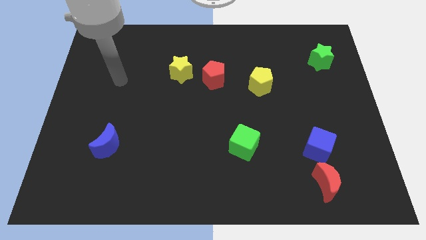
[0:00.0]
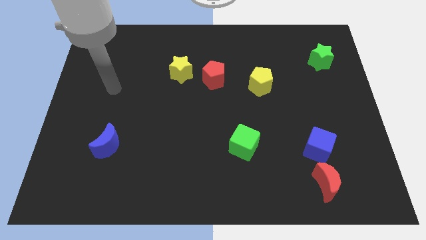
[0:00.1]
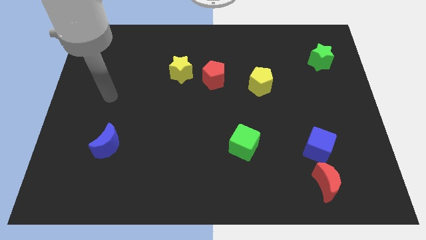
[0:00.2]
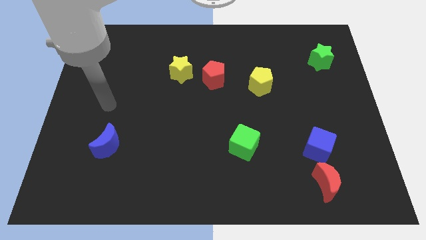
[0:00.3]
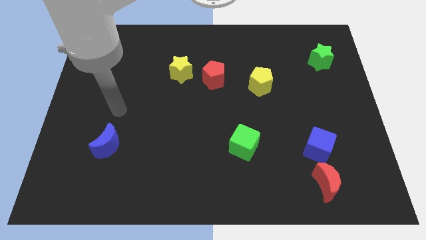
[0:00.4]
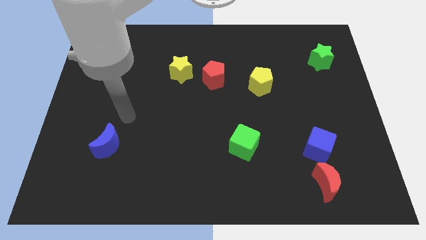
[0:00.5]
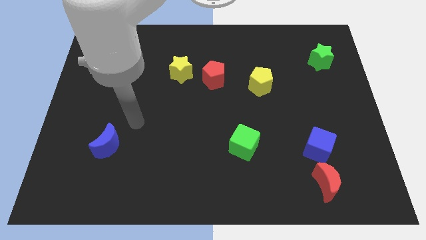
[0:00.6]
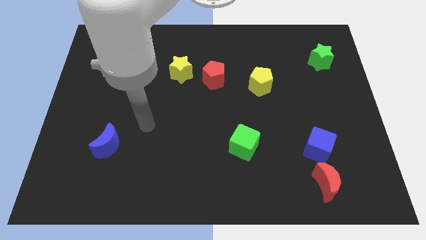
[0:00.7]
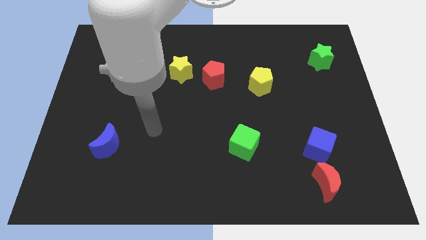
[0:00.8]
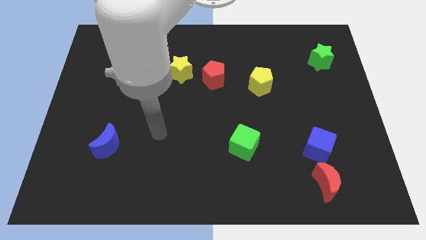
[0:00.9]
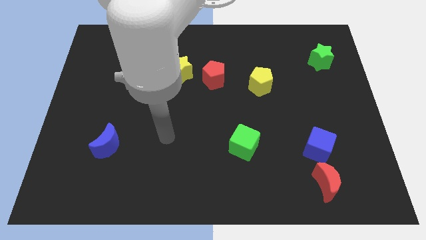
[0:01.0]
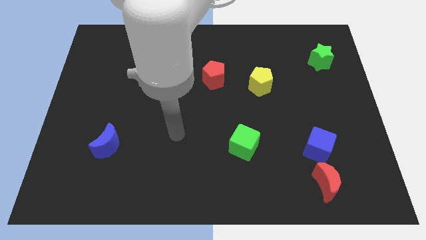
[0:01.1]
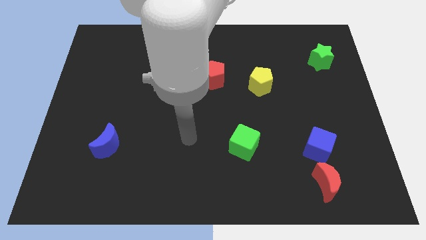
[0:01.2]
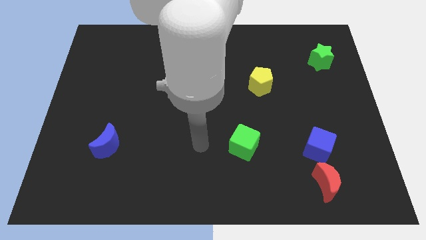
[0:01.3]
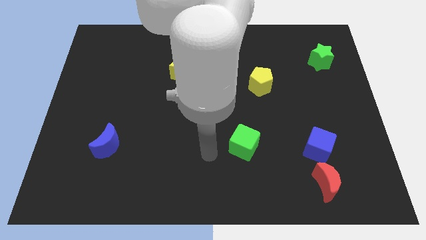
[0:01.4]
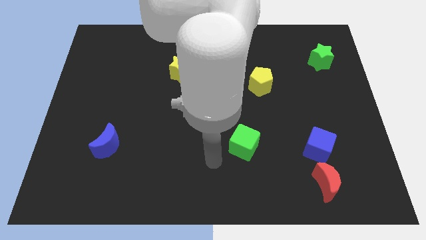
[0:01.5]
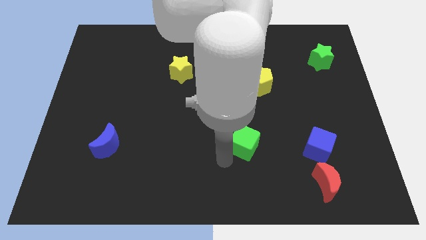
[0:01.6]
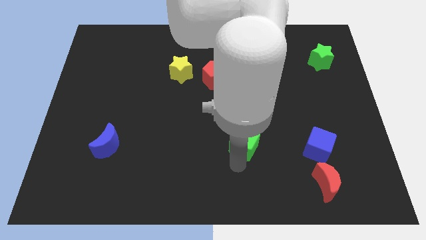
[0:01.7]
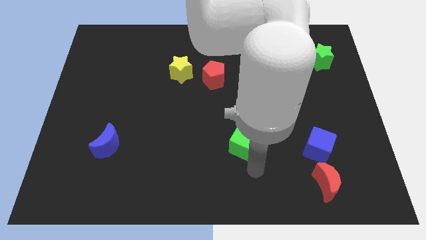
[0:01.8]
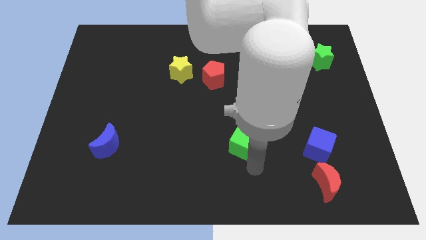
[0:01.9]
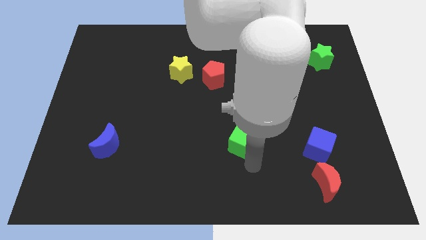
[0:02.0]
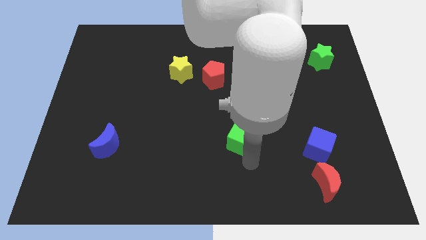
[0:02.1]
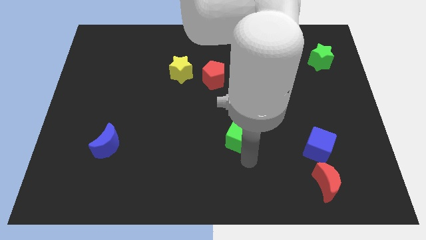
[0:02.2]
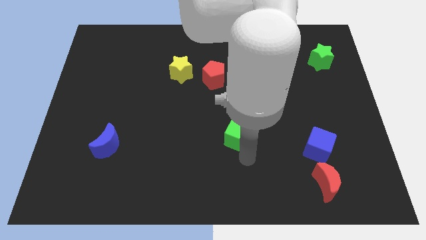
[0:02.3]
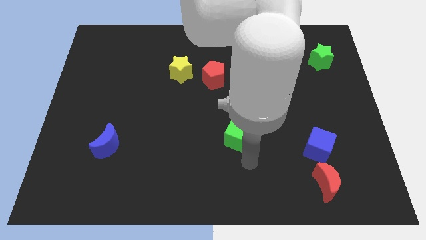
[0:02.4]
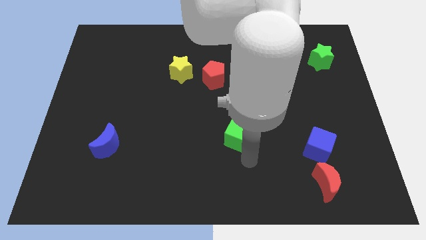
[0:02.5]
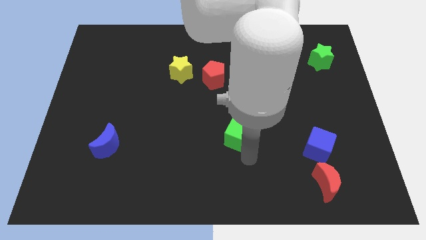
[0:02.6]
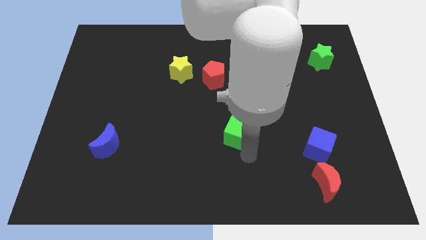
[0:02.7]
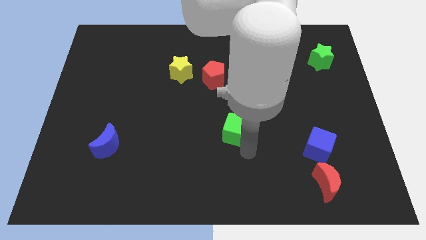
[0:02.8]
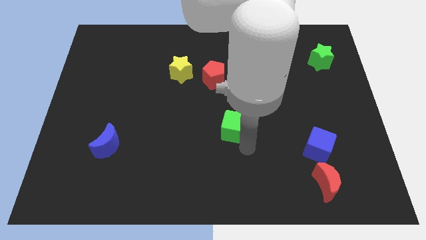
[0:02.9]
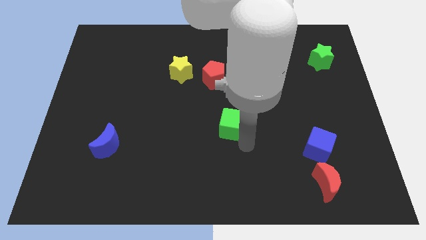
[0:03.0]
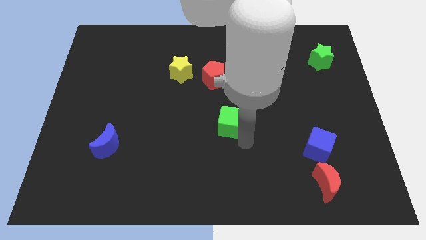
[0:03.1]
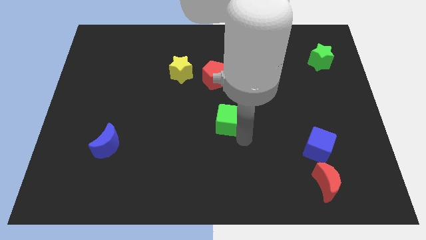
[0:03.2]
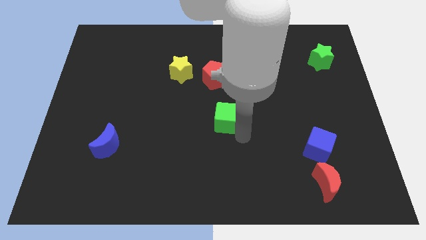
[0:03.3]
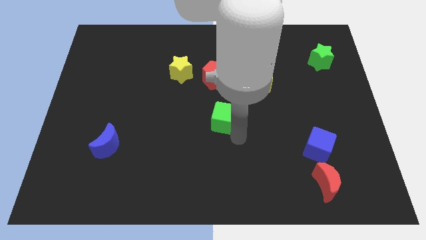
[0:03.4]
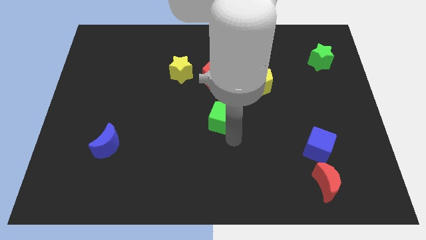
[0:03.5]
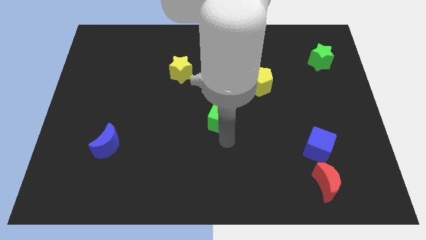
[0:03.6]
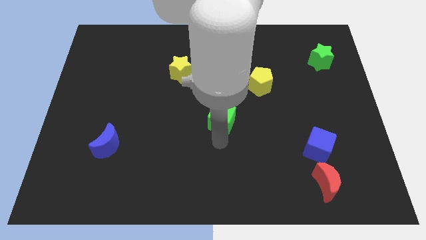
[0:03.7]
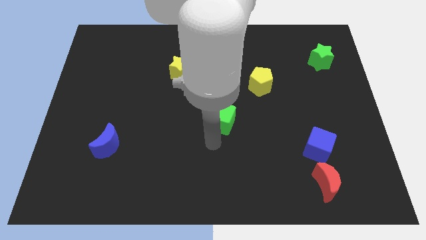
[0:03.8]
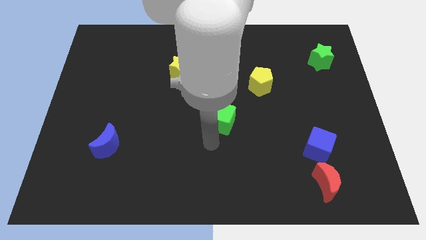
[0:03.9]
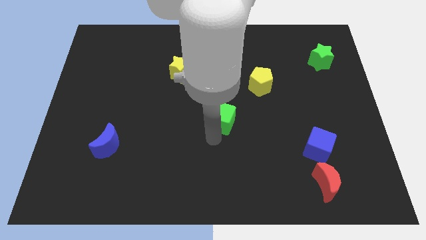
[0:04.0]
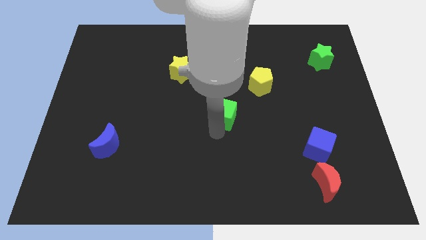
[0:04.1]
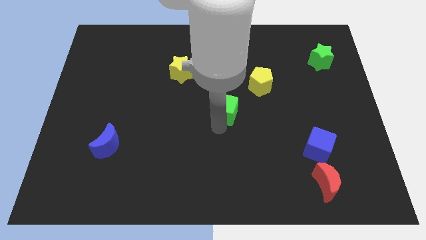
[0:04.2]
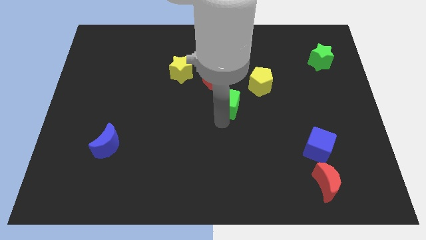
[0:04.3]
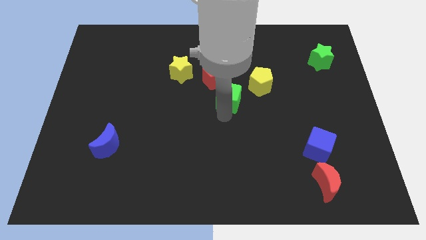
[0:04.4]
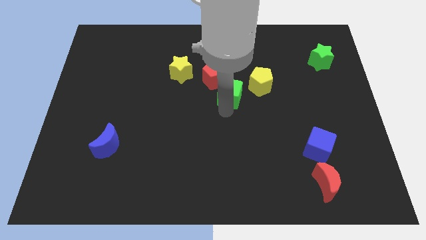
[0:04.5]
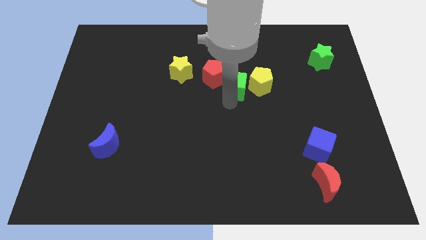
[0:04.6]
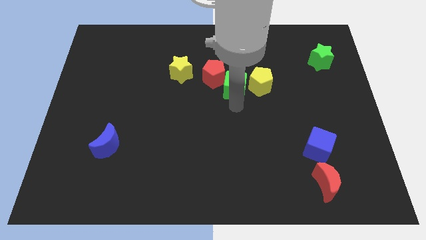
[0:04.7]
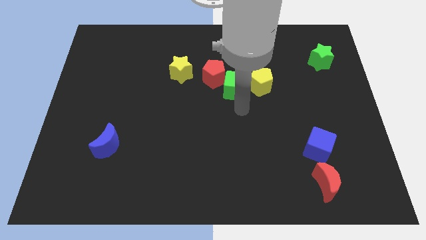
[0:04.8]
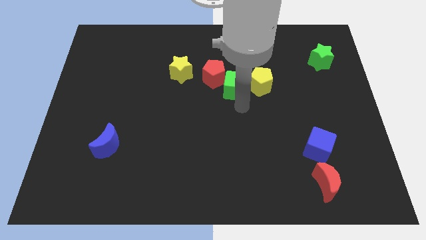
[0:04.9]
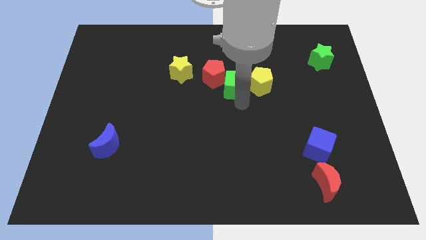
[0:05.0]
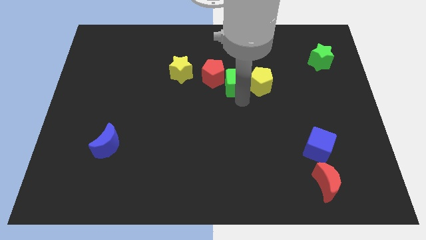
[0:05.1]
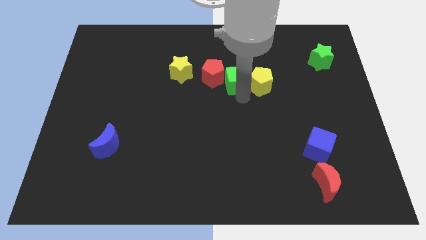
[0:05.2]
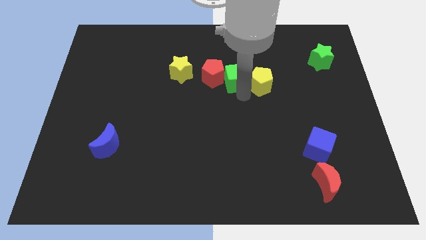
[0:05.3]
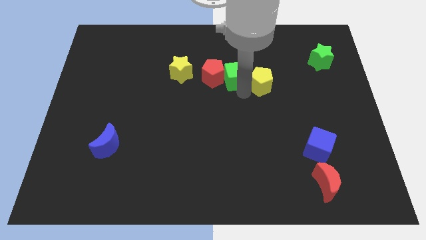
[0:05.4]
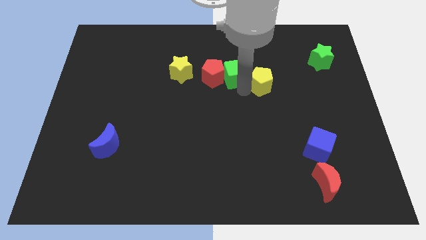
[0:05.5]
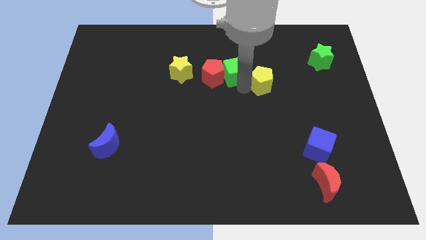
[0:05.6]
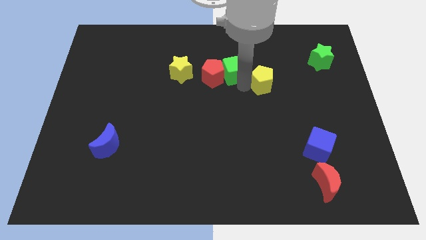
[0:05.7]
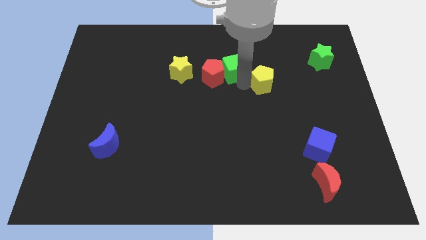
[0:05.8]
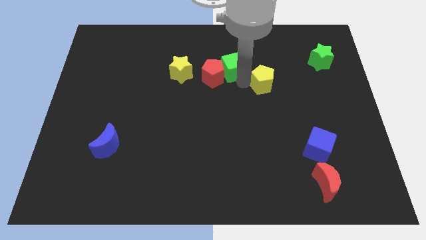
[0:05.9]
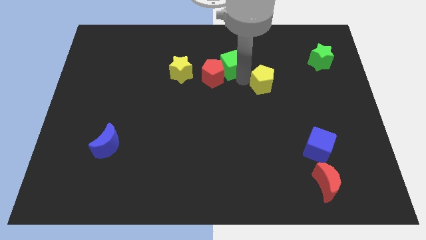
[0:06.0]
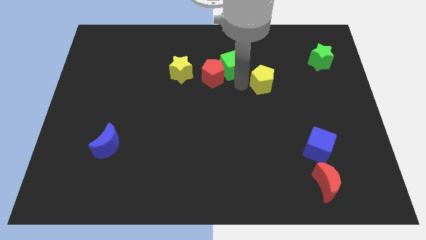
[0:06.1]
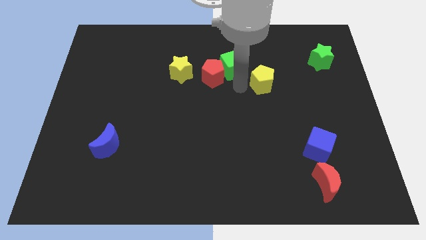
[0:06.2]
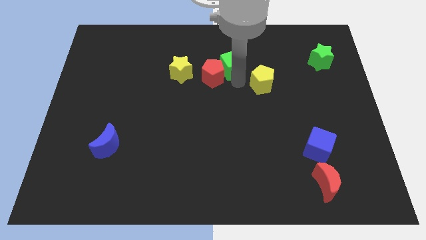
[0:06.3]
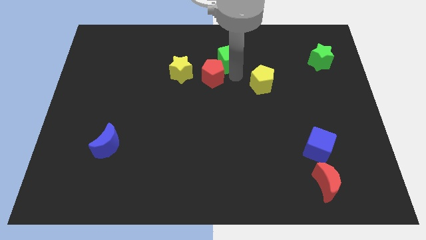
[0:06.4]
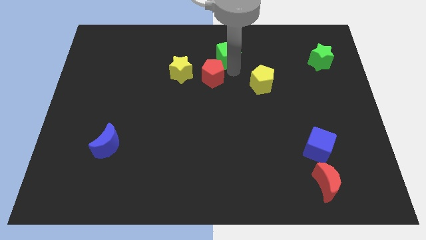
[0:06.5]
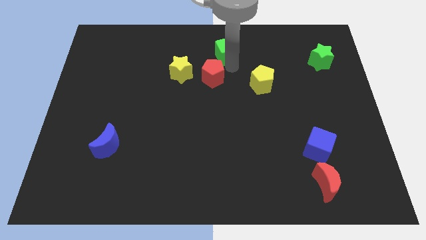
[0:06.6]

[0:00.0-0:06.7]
slide the green cube to the top side
